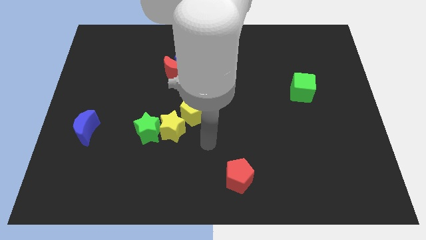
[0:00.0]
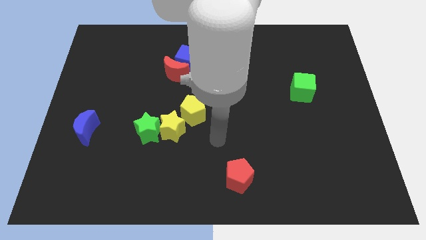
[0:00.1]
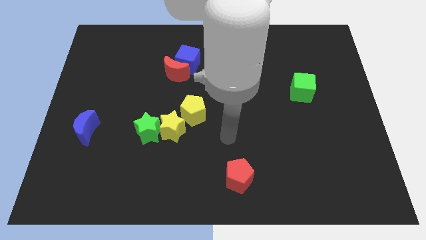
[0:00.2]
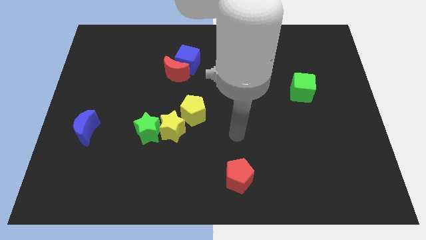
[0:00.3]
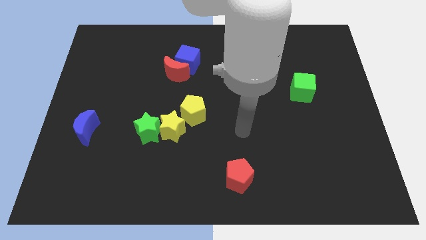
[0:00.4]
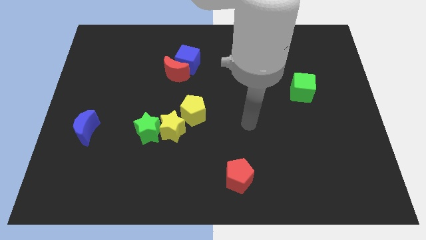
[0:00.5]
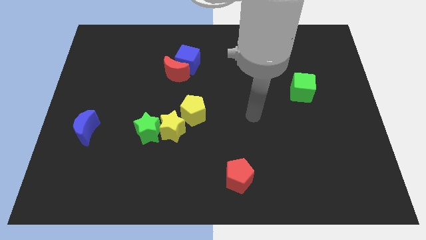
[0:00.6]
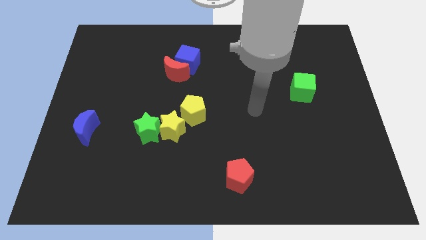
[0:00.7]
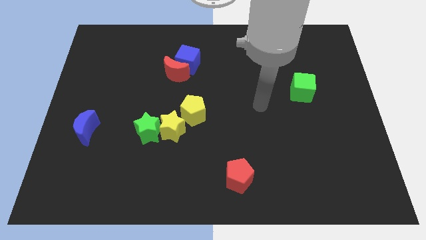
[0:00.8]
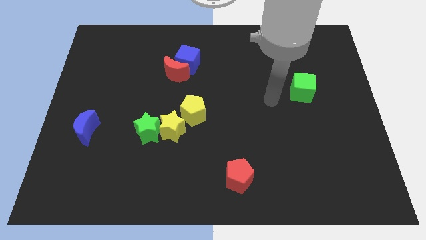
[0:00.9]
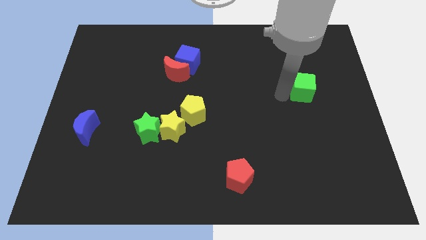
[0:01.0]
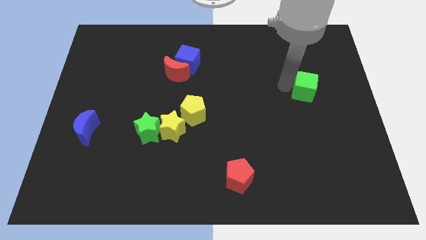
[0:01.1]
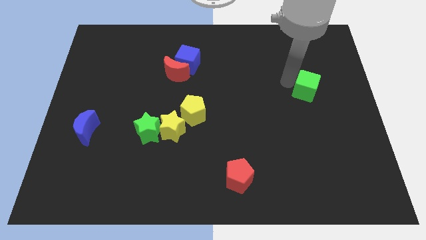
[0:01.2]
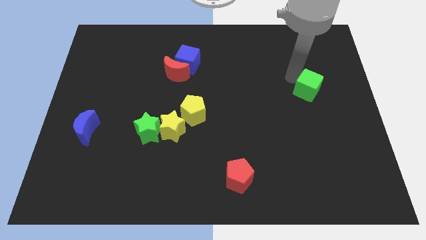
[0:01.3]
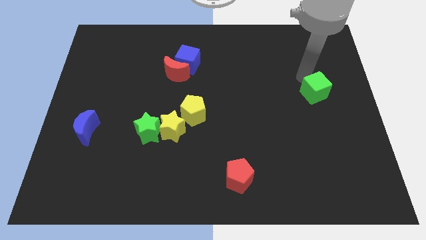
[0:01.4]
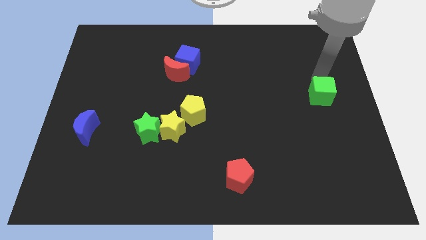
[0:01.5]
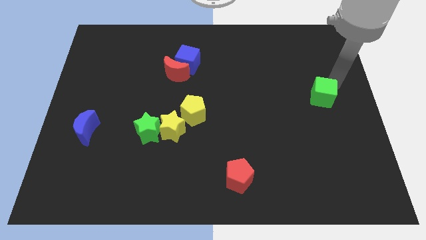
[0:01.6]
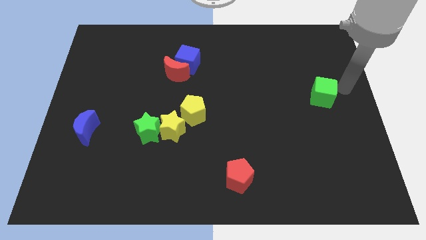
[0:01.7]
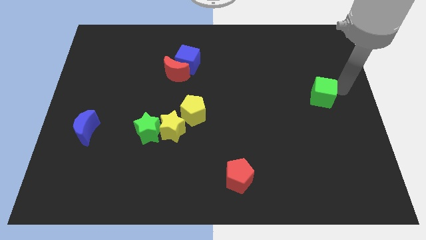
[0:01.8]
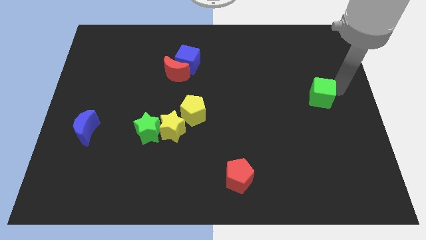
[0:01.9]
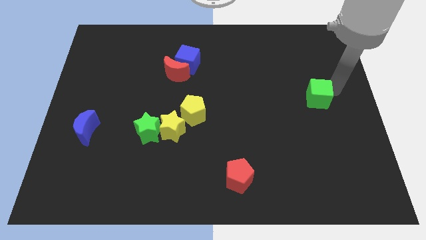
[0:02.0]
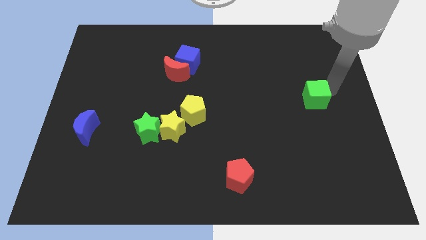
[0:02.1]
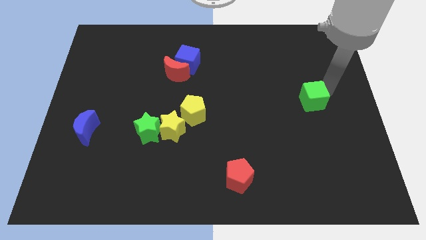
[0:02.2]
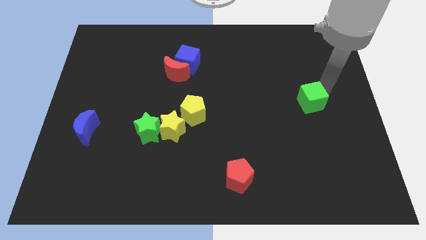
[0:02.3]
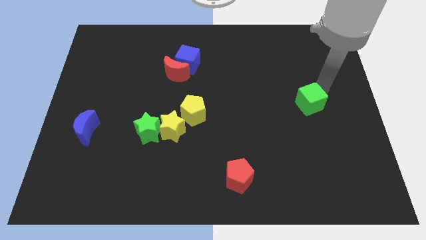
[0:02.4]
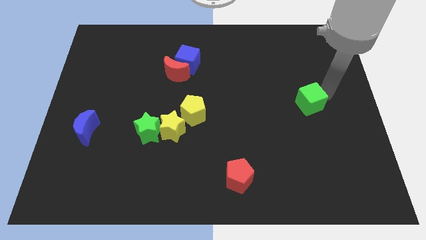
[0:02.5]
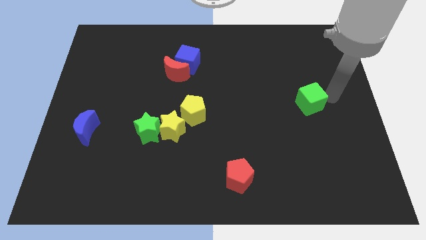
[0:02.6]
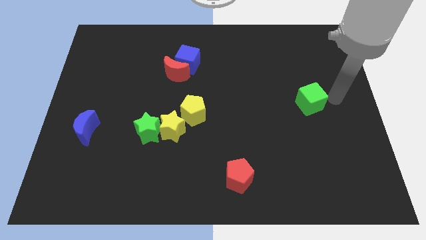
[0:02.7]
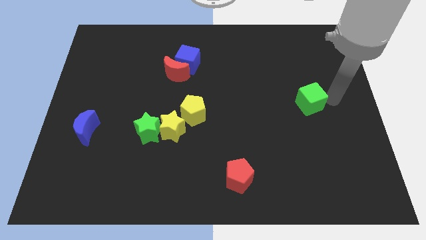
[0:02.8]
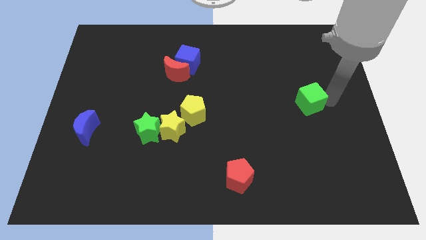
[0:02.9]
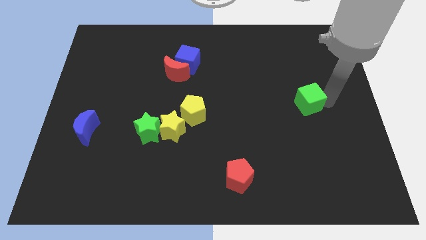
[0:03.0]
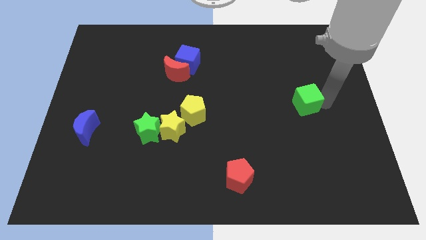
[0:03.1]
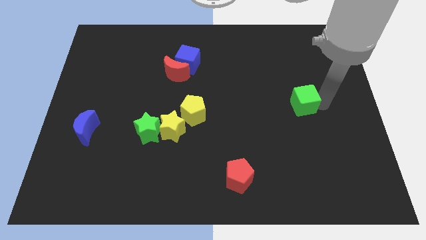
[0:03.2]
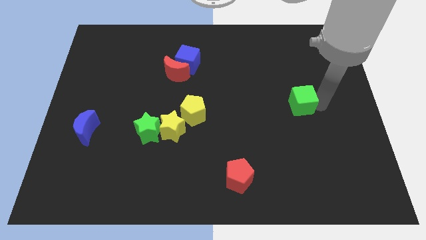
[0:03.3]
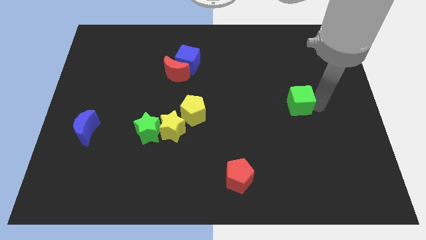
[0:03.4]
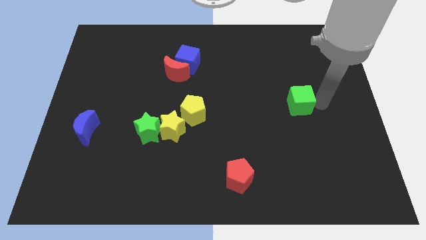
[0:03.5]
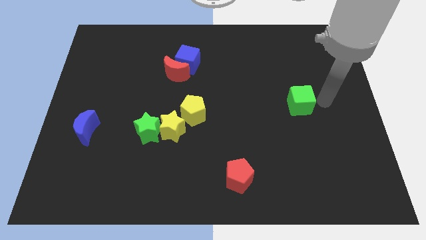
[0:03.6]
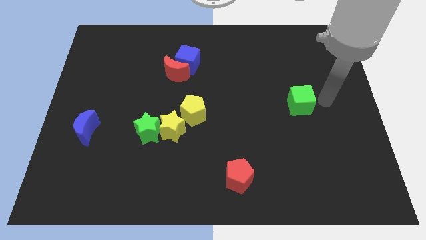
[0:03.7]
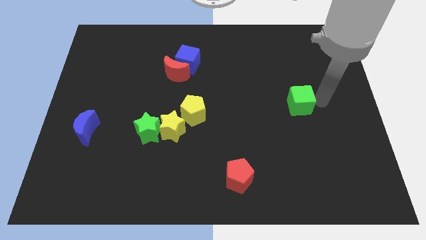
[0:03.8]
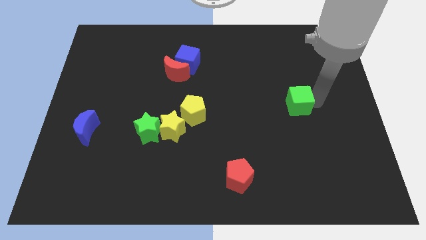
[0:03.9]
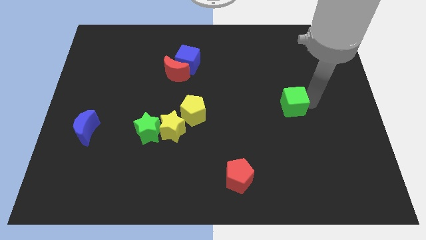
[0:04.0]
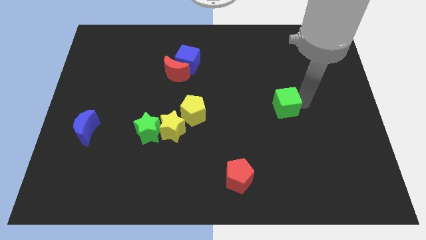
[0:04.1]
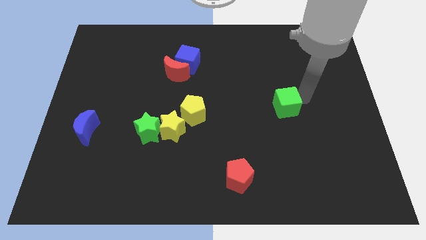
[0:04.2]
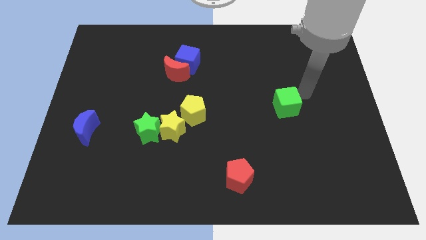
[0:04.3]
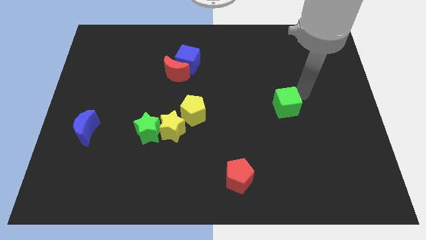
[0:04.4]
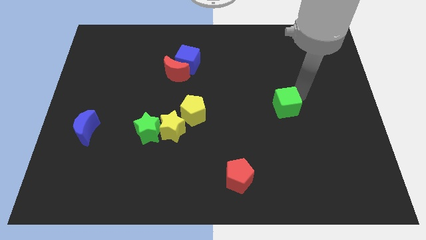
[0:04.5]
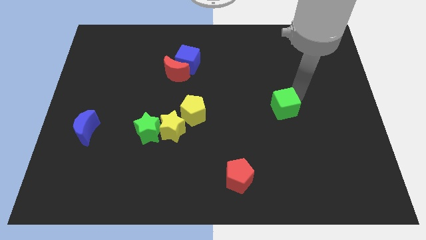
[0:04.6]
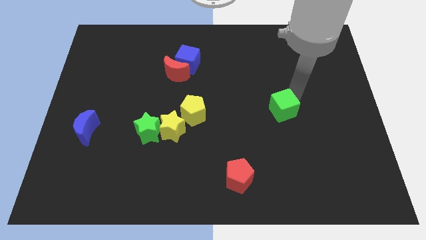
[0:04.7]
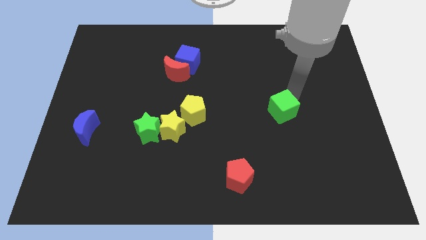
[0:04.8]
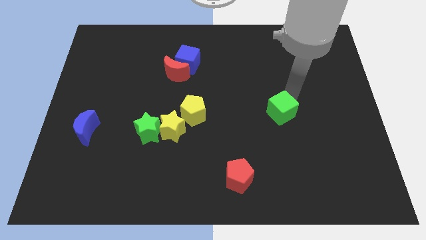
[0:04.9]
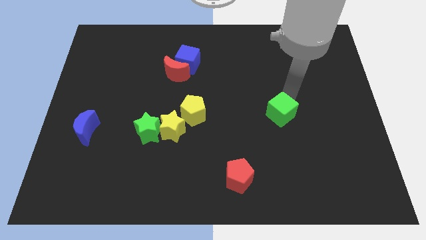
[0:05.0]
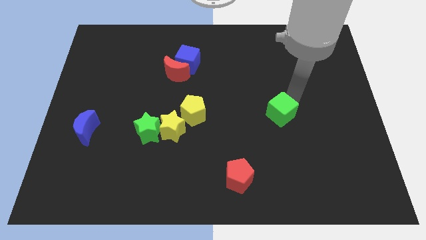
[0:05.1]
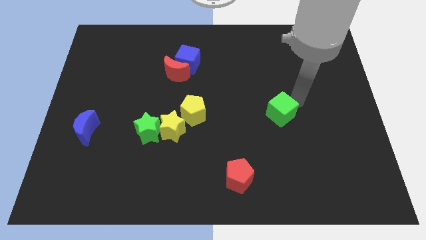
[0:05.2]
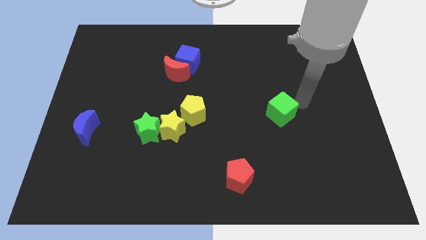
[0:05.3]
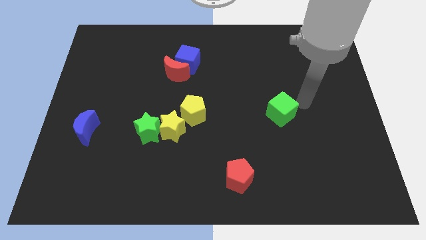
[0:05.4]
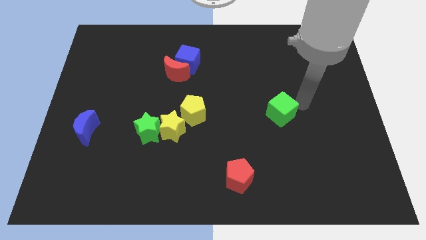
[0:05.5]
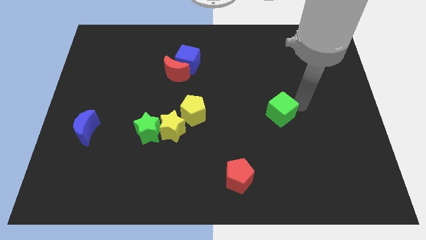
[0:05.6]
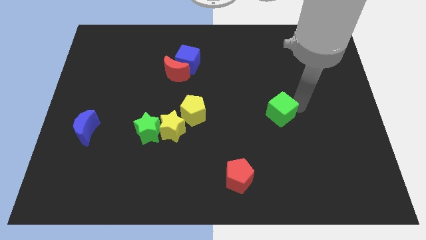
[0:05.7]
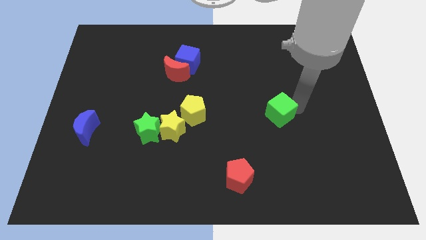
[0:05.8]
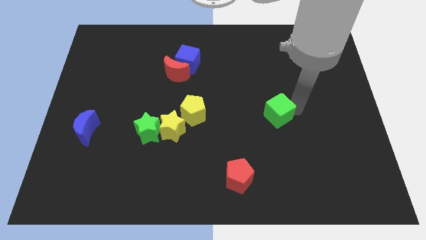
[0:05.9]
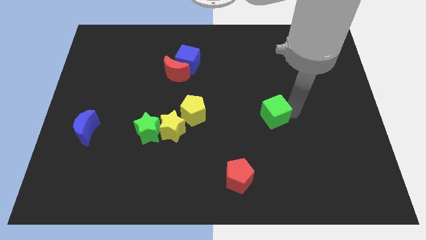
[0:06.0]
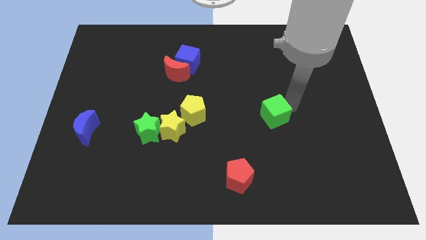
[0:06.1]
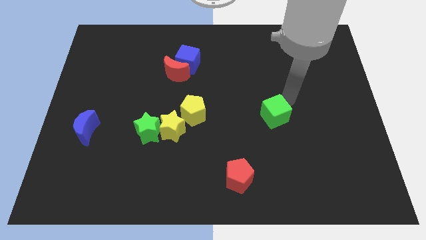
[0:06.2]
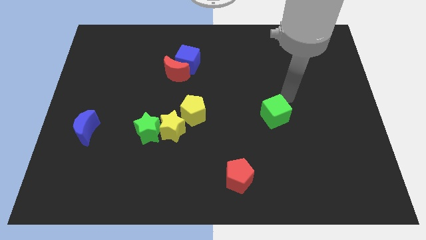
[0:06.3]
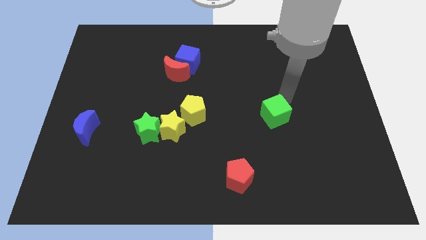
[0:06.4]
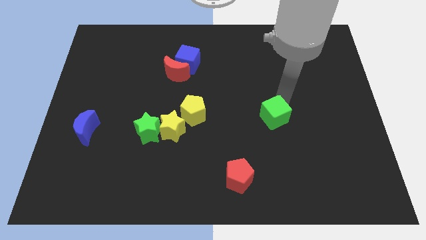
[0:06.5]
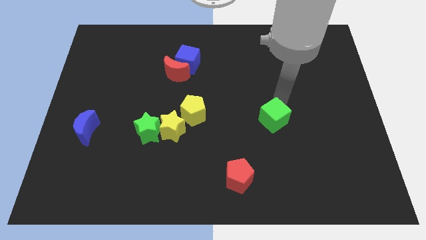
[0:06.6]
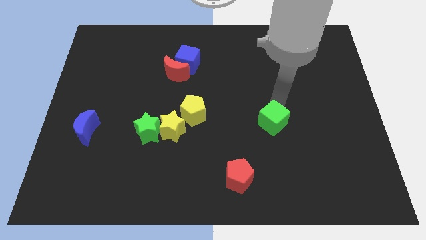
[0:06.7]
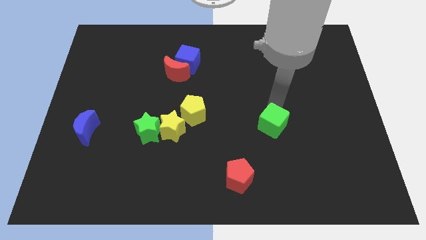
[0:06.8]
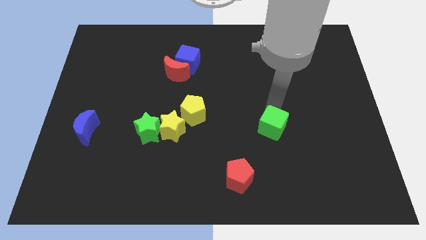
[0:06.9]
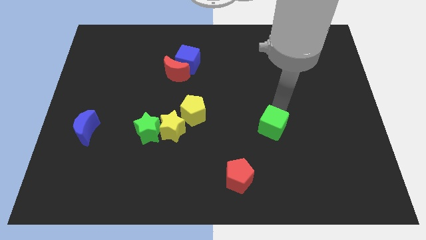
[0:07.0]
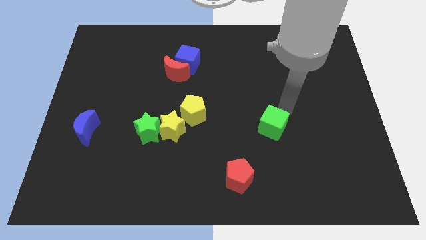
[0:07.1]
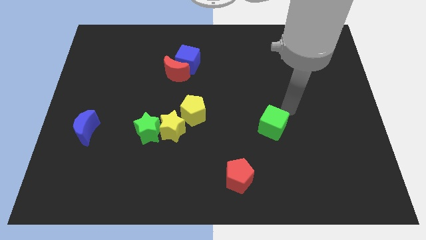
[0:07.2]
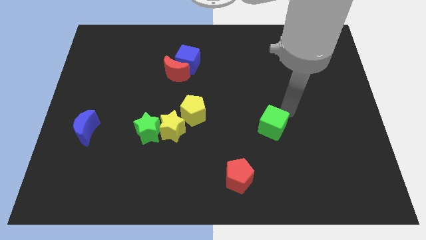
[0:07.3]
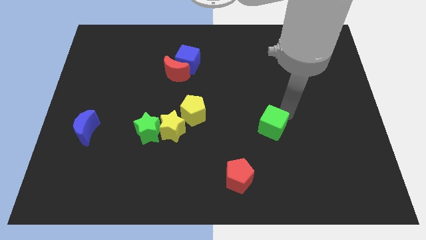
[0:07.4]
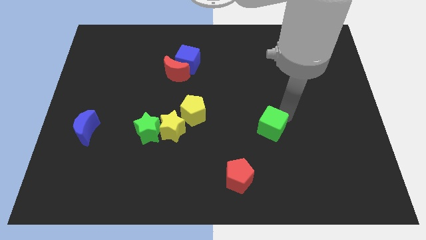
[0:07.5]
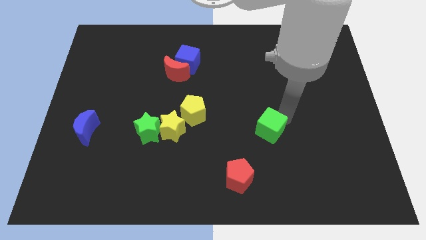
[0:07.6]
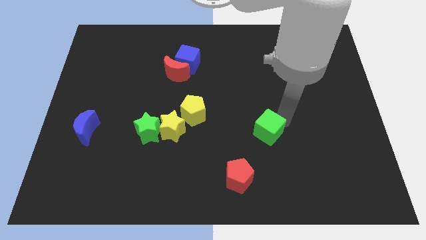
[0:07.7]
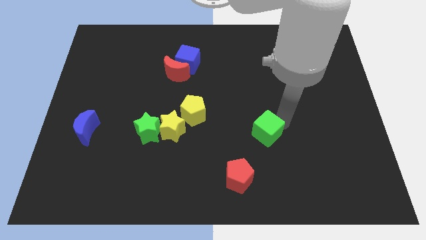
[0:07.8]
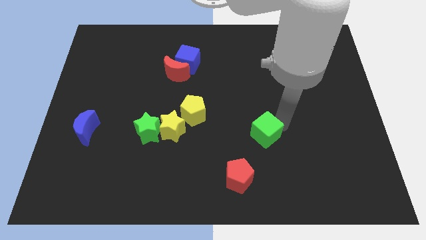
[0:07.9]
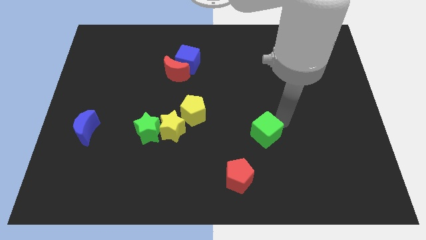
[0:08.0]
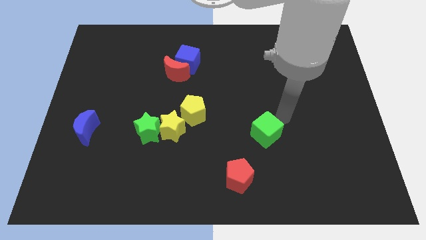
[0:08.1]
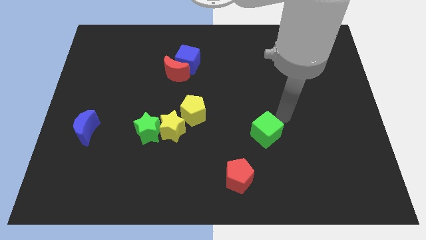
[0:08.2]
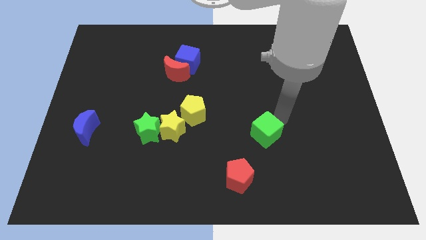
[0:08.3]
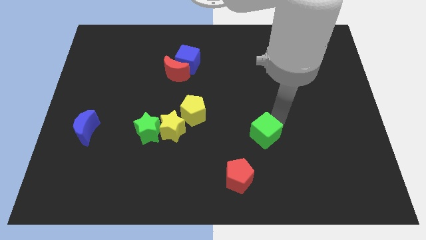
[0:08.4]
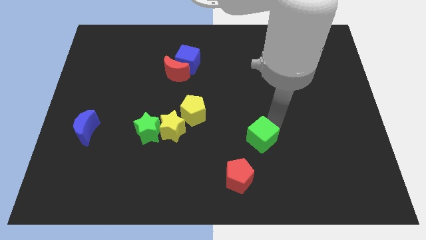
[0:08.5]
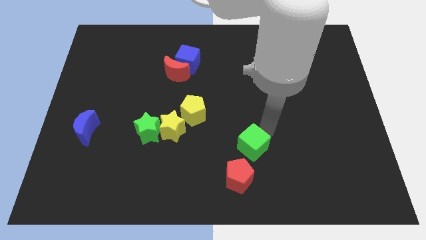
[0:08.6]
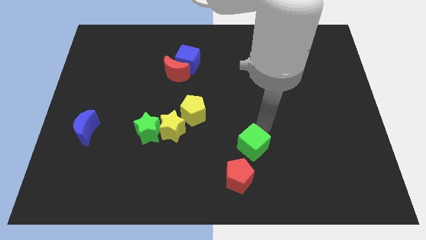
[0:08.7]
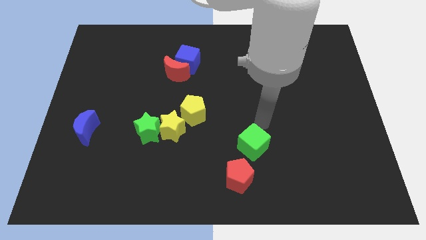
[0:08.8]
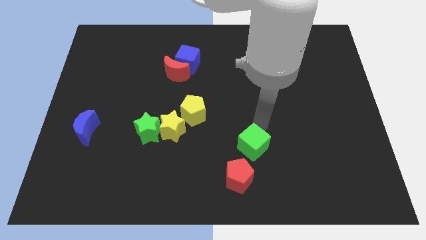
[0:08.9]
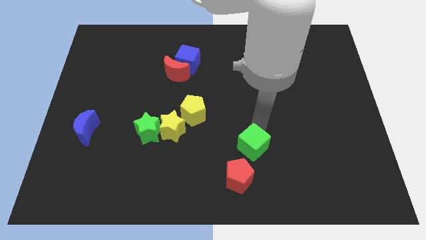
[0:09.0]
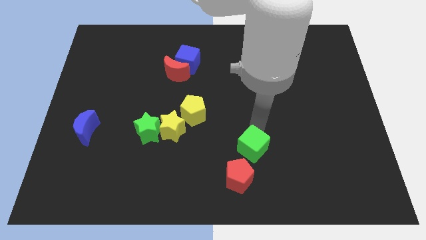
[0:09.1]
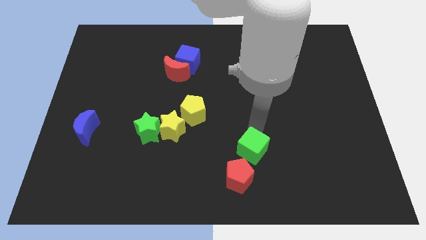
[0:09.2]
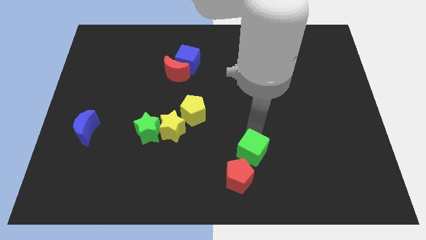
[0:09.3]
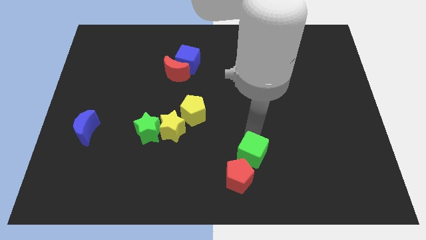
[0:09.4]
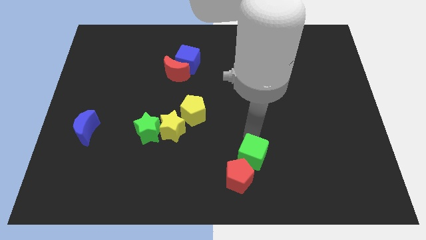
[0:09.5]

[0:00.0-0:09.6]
slide the green cube to the red pentagon
